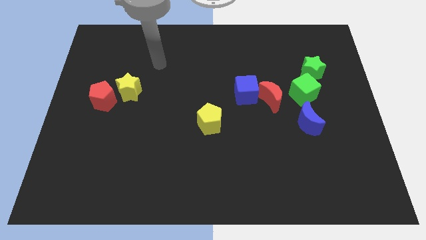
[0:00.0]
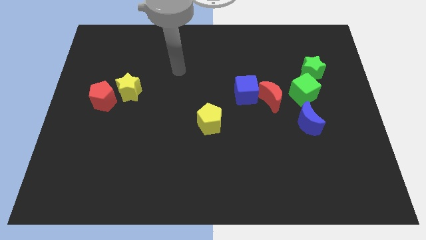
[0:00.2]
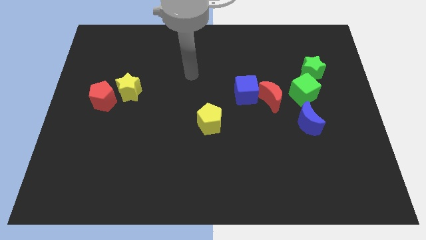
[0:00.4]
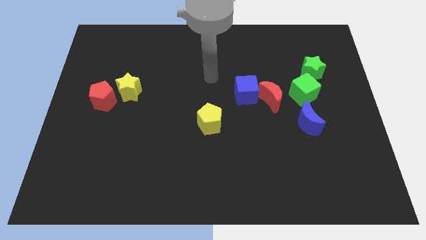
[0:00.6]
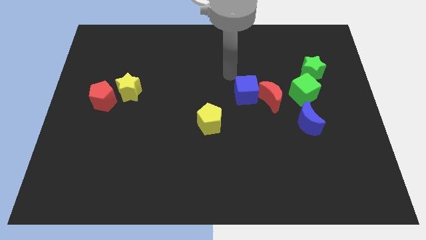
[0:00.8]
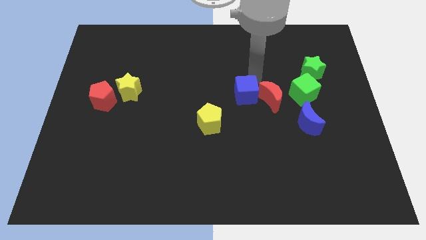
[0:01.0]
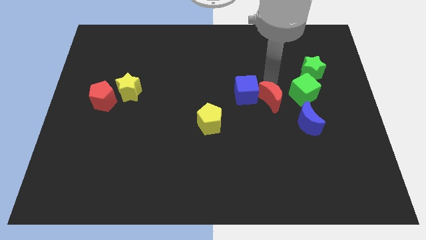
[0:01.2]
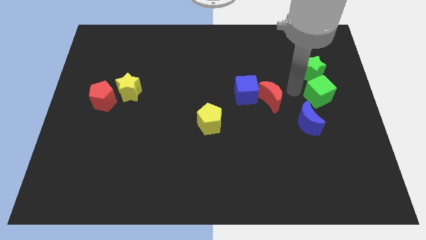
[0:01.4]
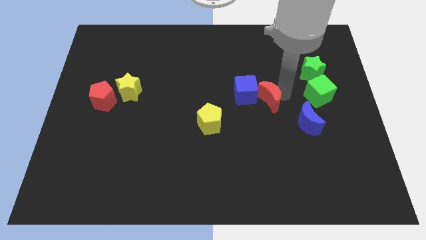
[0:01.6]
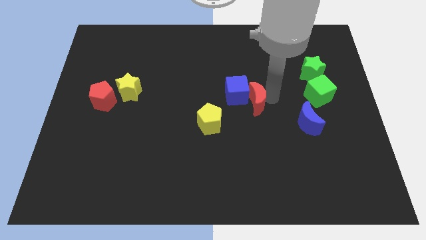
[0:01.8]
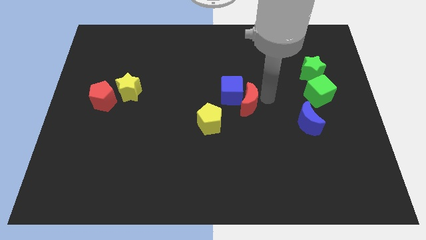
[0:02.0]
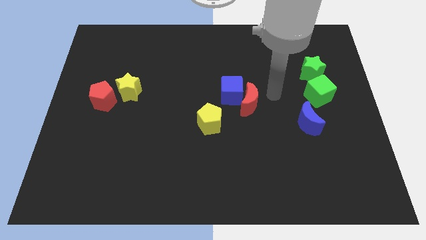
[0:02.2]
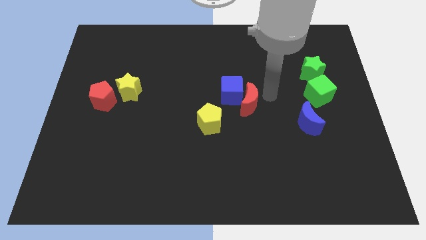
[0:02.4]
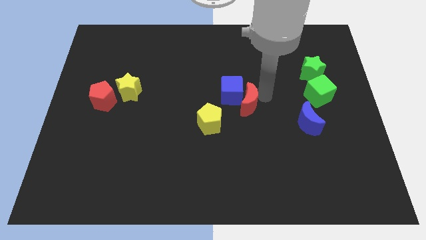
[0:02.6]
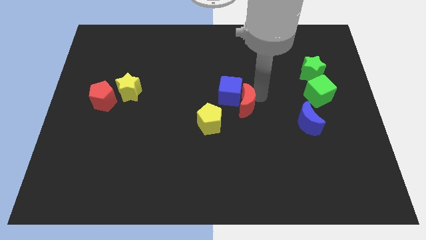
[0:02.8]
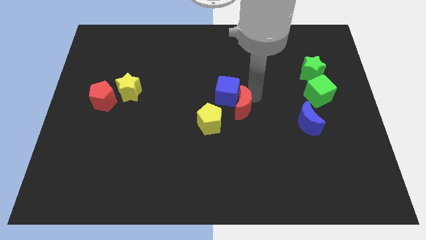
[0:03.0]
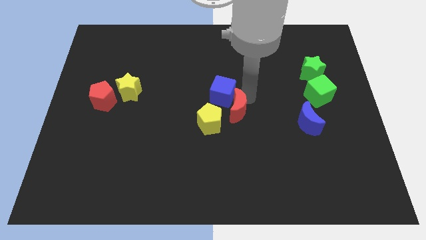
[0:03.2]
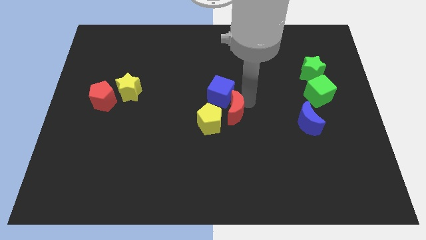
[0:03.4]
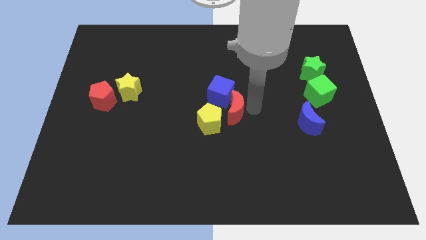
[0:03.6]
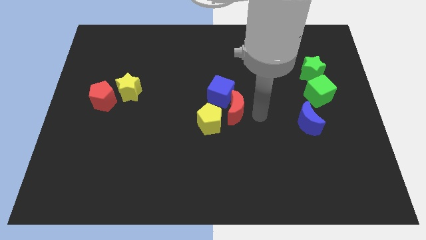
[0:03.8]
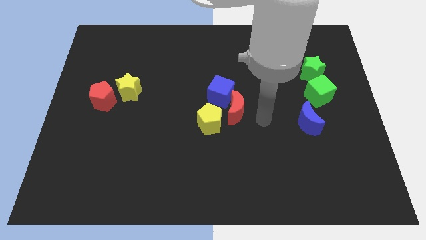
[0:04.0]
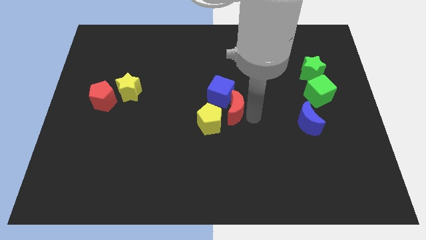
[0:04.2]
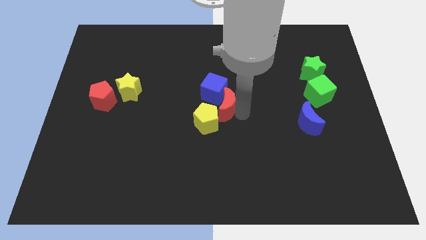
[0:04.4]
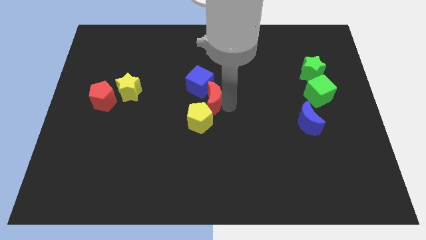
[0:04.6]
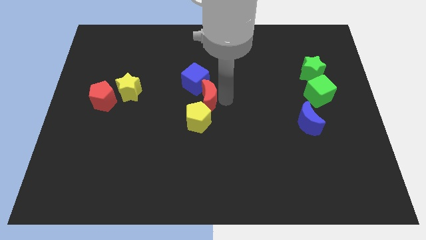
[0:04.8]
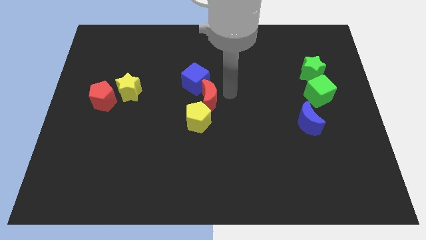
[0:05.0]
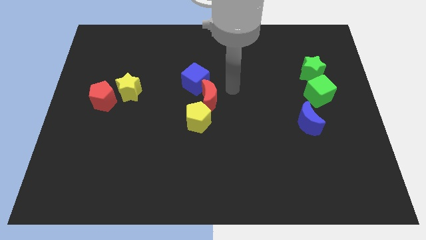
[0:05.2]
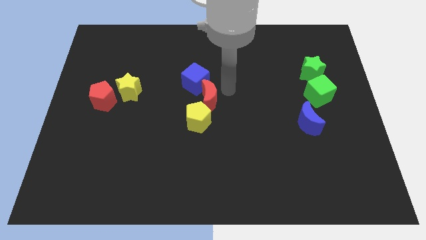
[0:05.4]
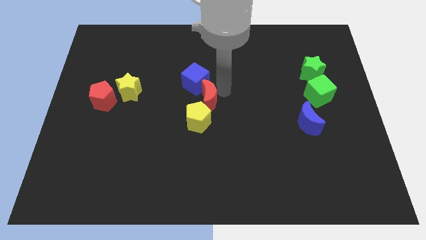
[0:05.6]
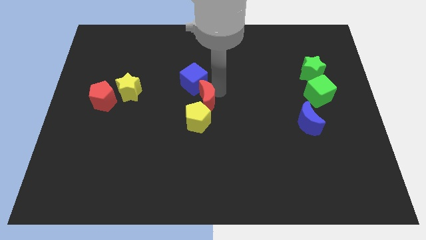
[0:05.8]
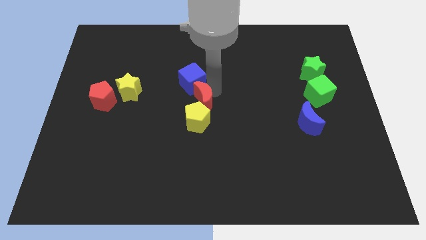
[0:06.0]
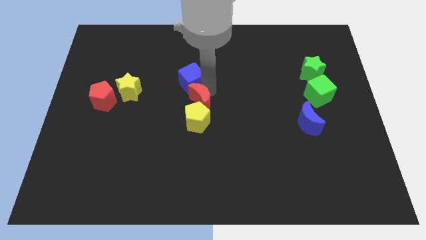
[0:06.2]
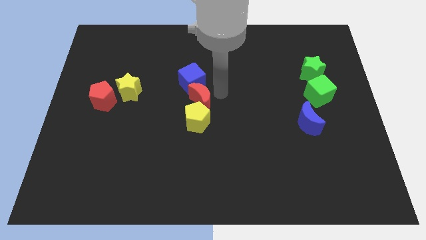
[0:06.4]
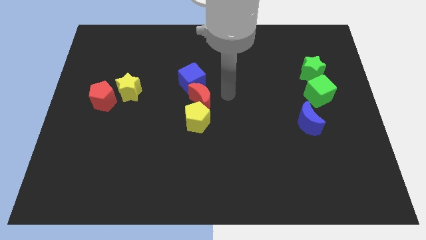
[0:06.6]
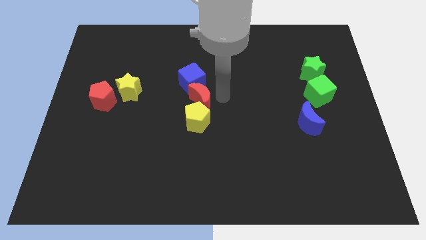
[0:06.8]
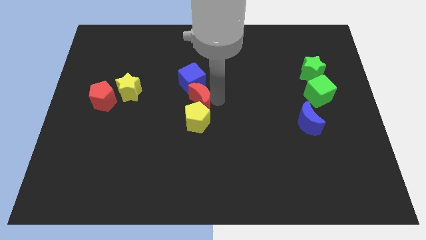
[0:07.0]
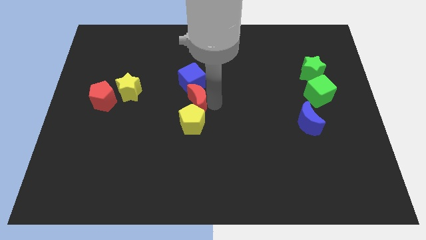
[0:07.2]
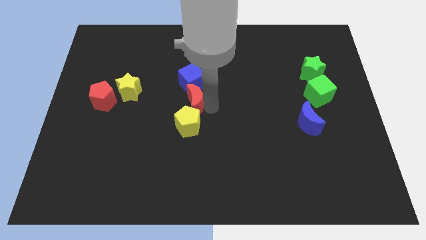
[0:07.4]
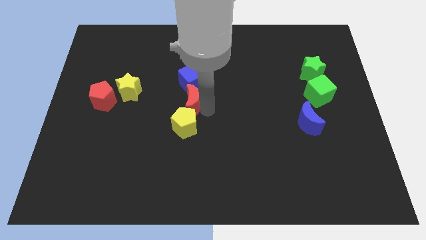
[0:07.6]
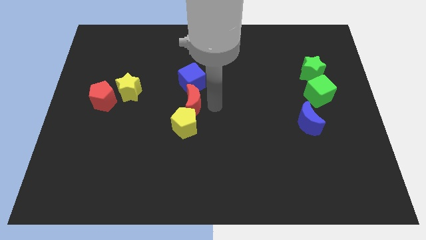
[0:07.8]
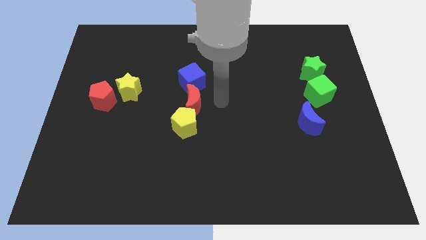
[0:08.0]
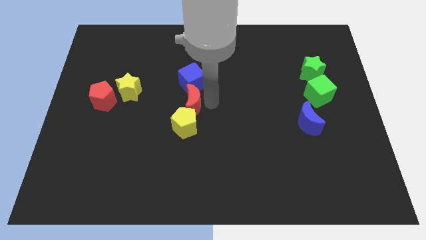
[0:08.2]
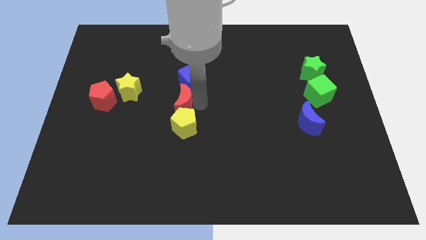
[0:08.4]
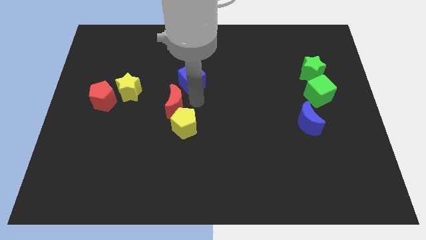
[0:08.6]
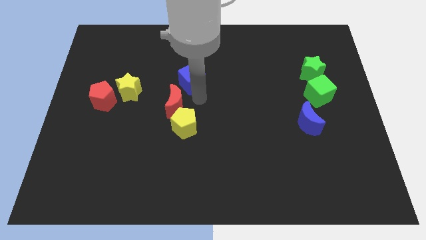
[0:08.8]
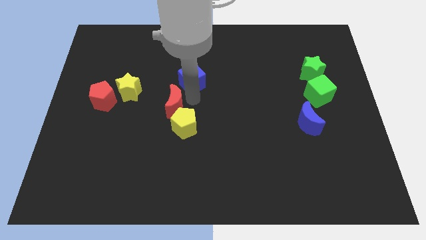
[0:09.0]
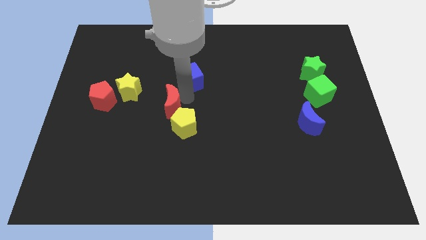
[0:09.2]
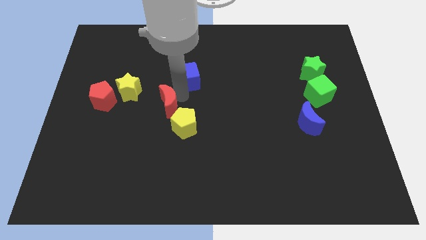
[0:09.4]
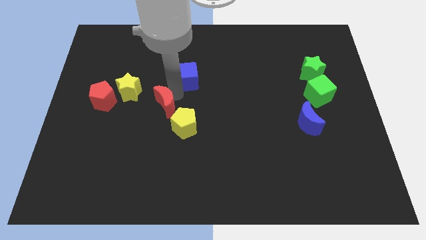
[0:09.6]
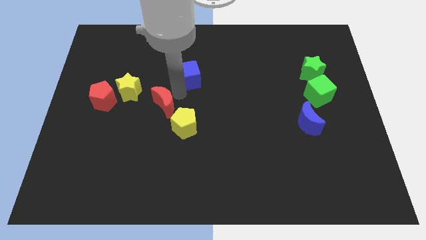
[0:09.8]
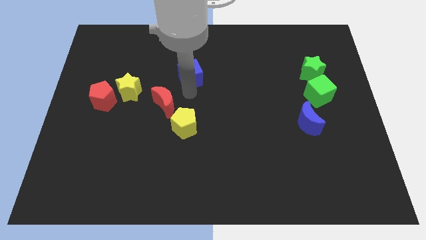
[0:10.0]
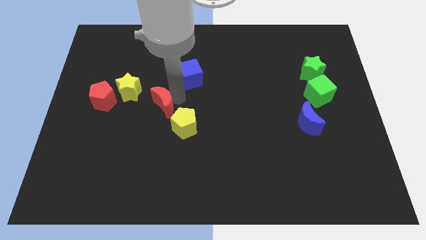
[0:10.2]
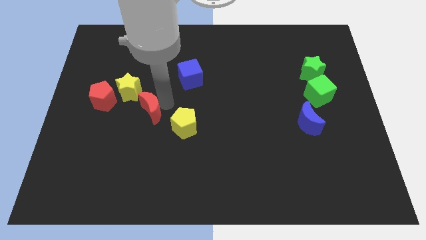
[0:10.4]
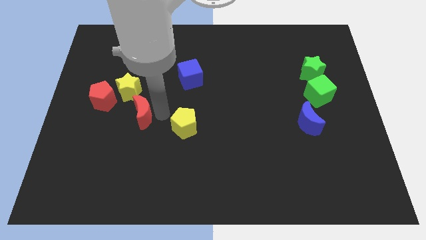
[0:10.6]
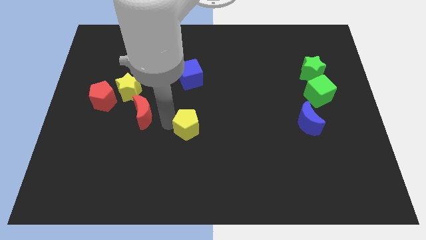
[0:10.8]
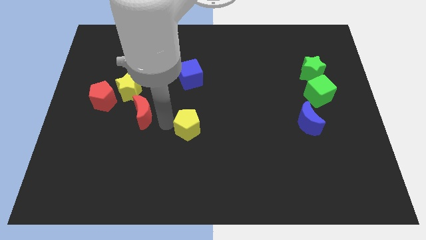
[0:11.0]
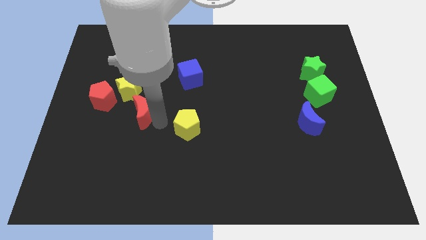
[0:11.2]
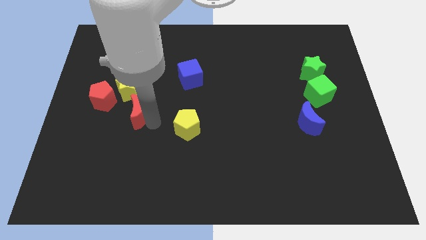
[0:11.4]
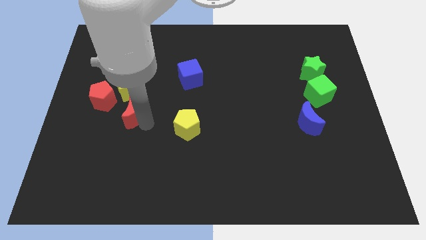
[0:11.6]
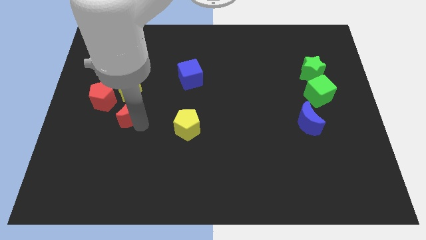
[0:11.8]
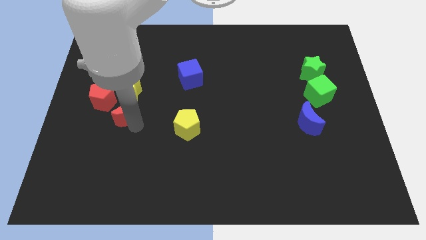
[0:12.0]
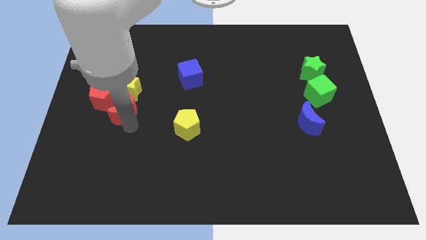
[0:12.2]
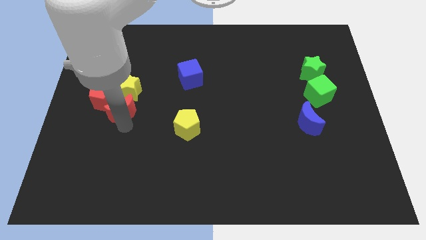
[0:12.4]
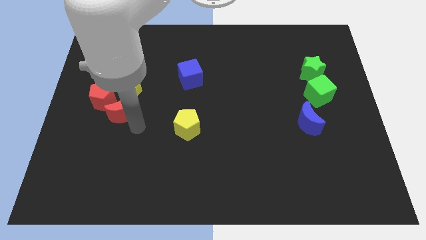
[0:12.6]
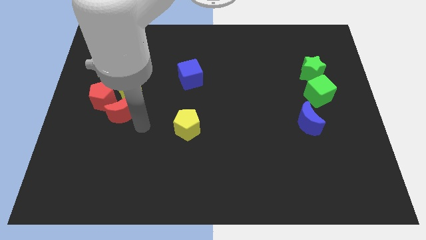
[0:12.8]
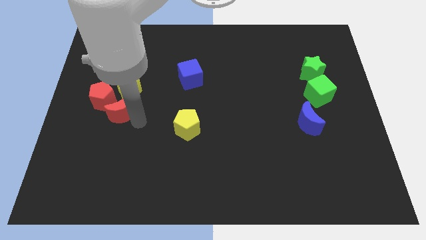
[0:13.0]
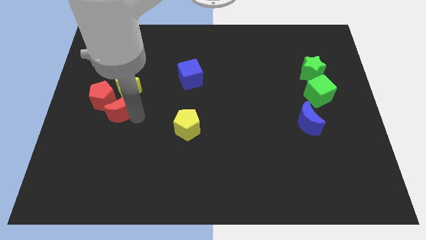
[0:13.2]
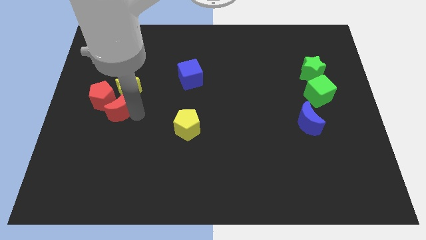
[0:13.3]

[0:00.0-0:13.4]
put the red moon next to the red pentagon

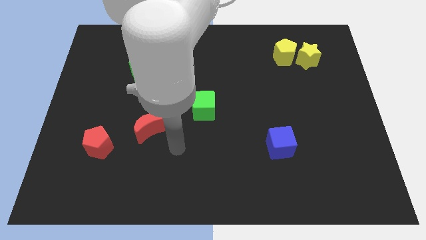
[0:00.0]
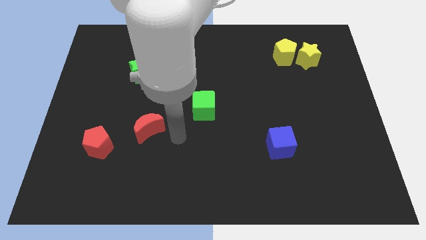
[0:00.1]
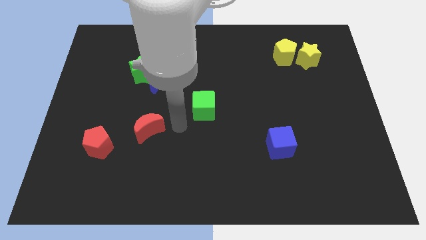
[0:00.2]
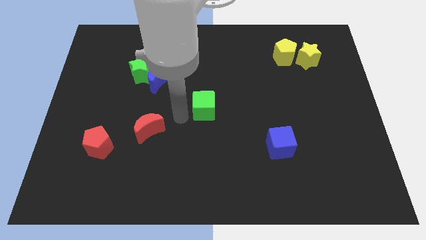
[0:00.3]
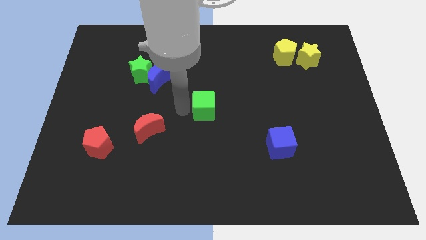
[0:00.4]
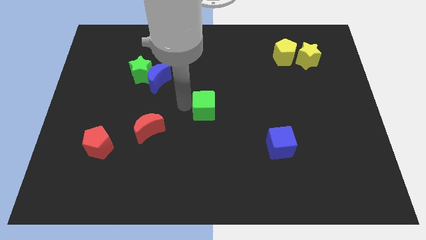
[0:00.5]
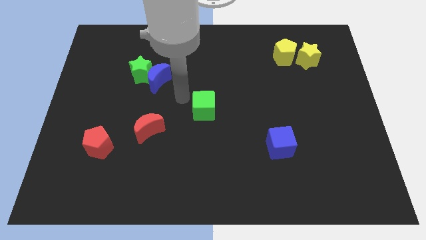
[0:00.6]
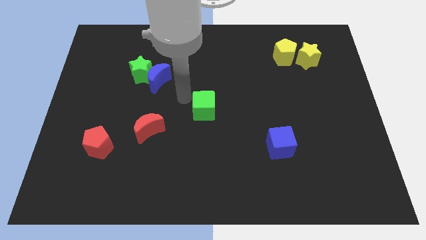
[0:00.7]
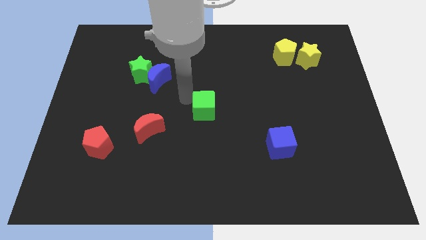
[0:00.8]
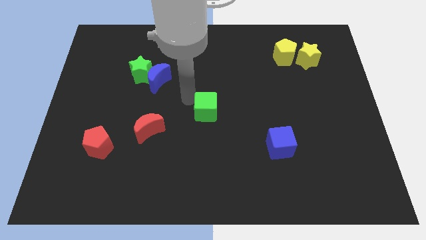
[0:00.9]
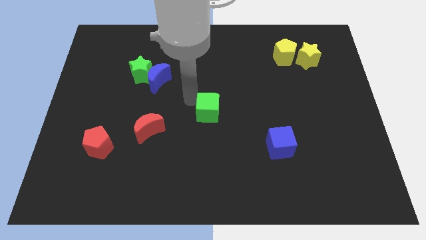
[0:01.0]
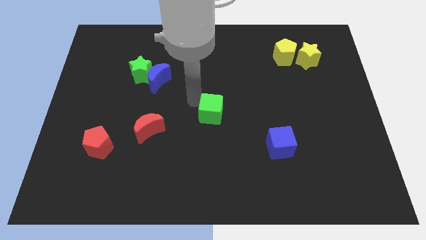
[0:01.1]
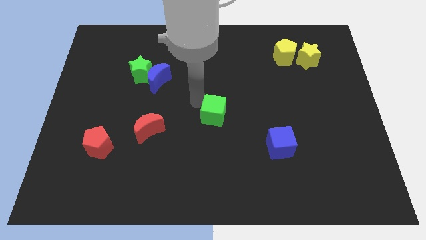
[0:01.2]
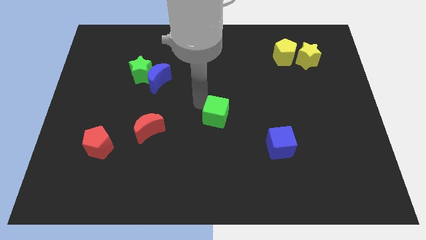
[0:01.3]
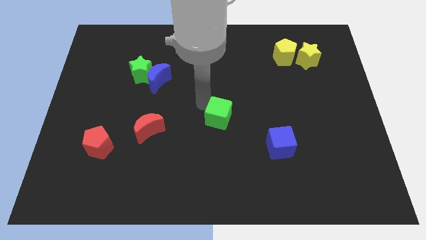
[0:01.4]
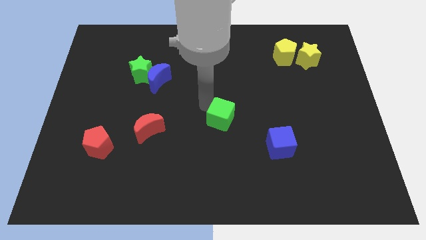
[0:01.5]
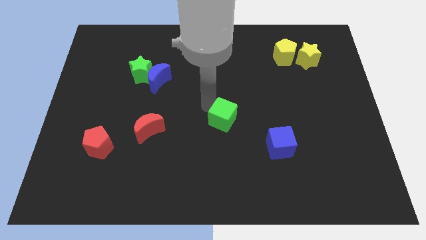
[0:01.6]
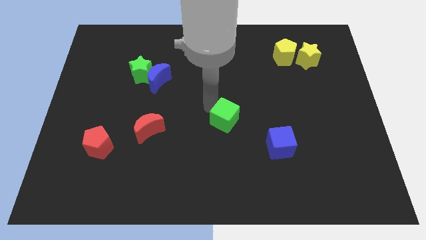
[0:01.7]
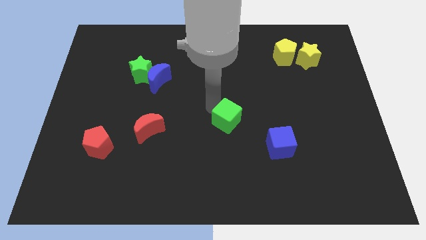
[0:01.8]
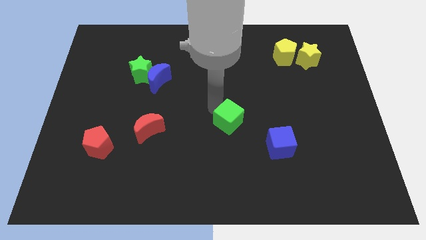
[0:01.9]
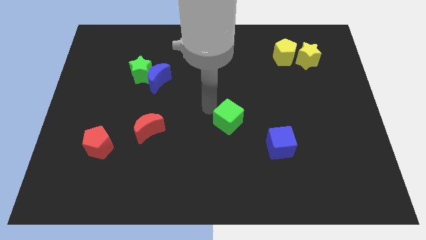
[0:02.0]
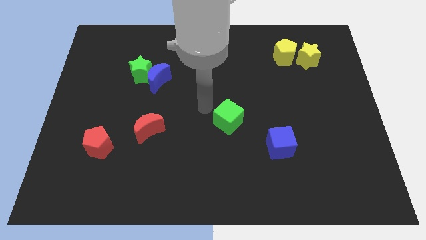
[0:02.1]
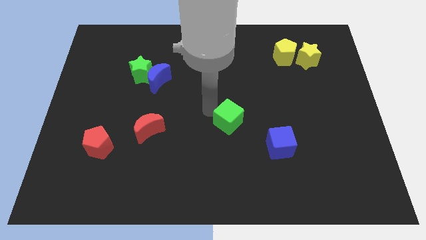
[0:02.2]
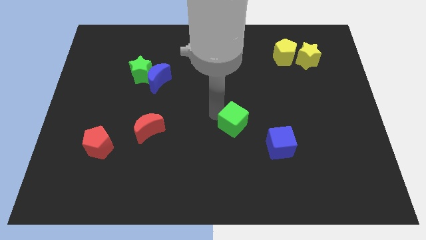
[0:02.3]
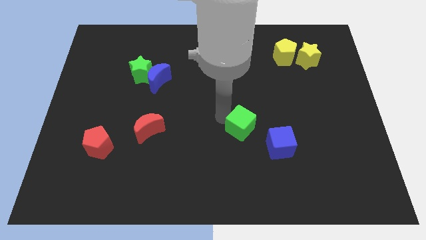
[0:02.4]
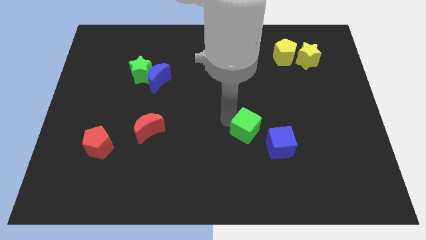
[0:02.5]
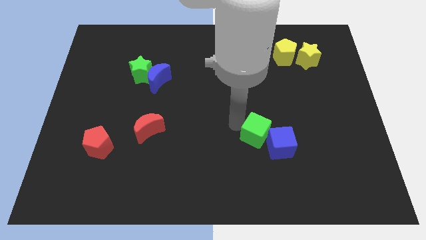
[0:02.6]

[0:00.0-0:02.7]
push the green cube towards the blue cube
